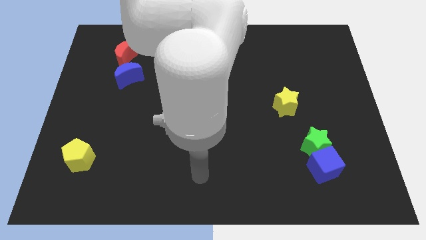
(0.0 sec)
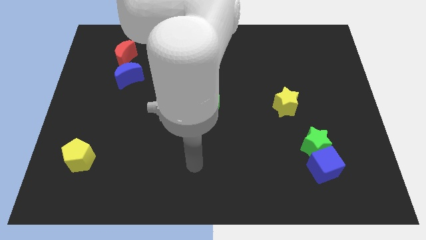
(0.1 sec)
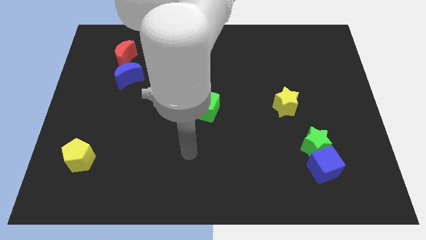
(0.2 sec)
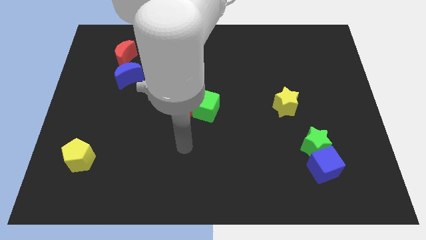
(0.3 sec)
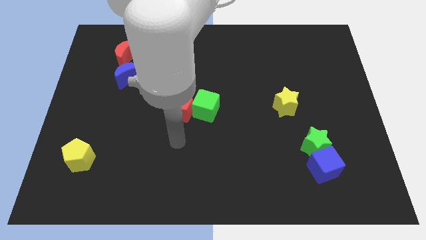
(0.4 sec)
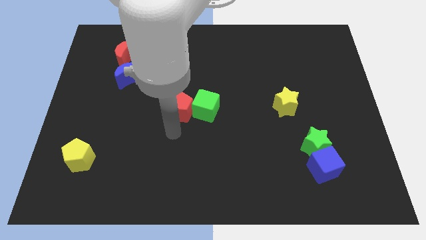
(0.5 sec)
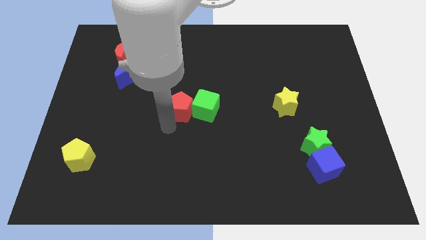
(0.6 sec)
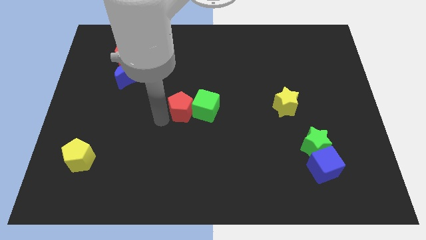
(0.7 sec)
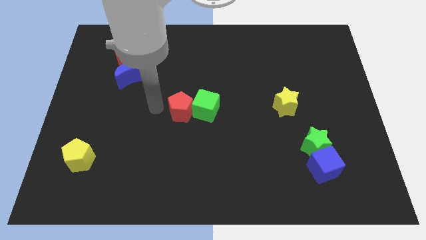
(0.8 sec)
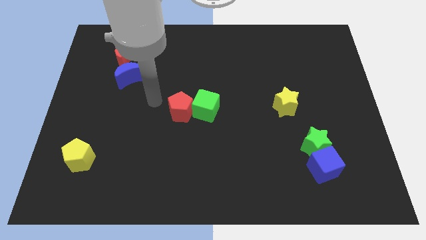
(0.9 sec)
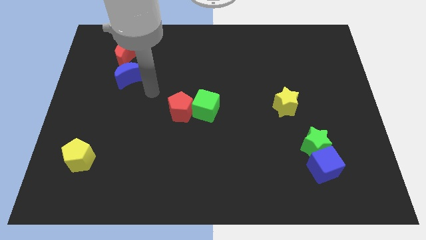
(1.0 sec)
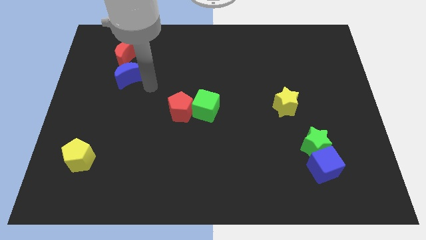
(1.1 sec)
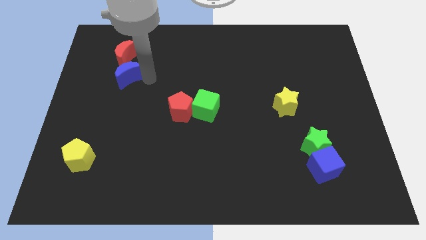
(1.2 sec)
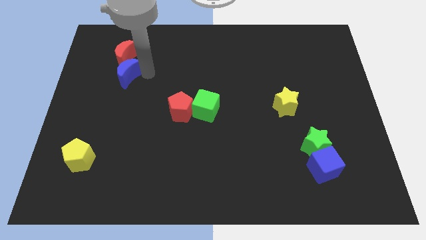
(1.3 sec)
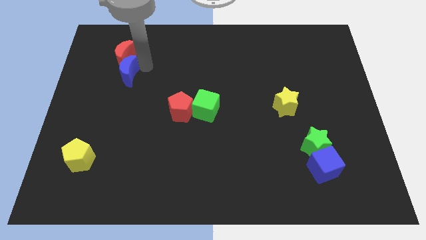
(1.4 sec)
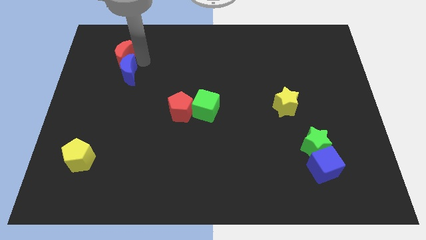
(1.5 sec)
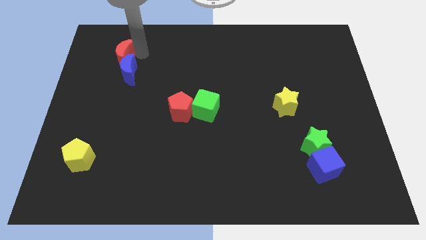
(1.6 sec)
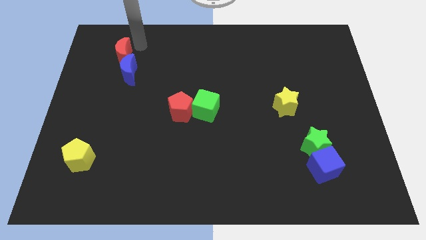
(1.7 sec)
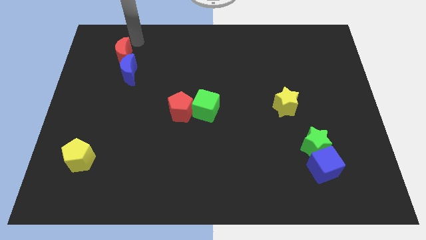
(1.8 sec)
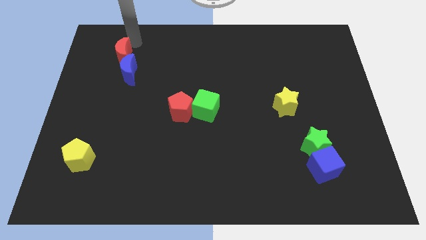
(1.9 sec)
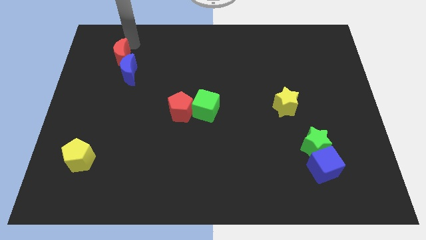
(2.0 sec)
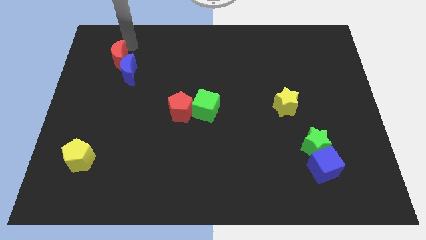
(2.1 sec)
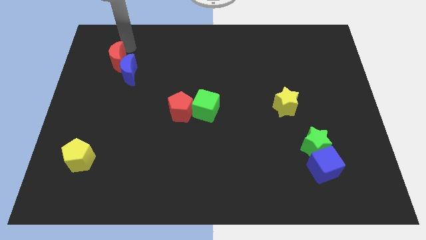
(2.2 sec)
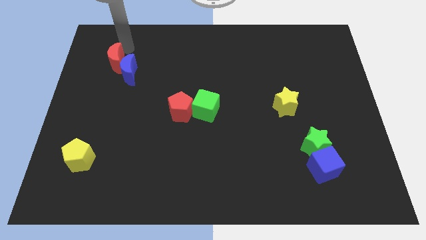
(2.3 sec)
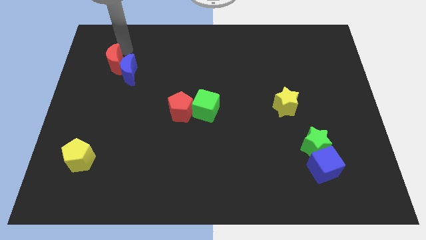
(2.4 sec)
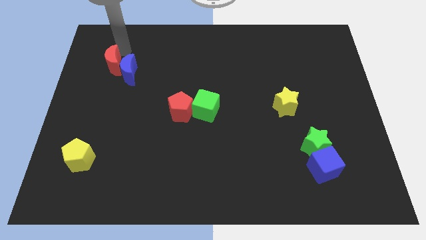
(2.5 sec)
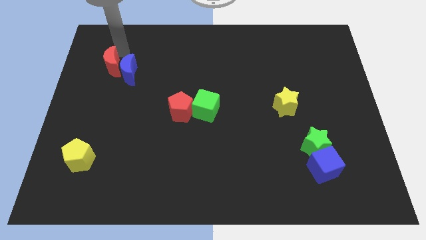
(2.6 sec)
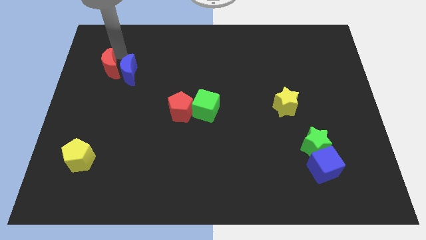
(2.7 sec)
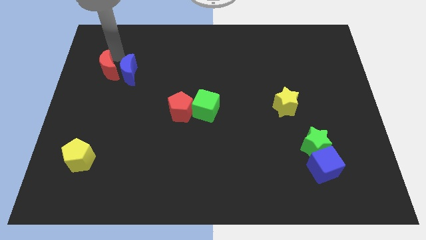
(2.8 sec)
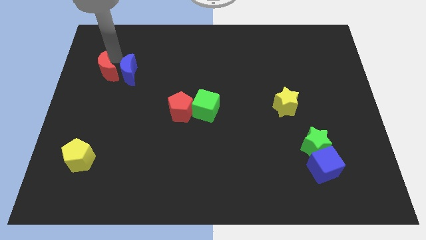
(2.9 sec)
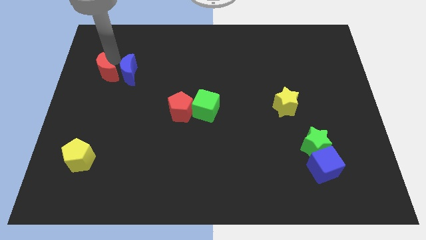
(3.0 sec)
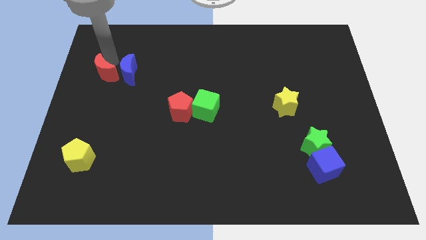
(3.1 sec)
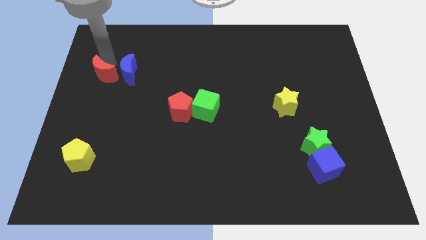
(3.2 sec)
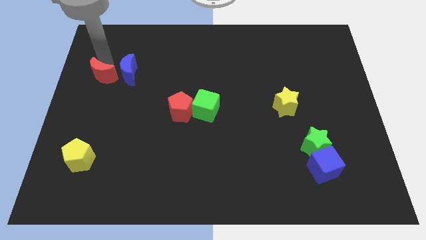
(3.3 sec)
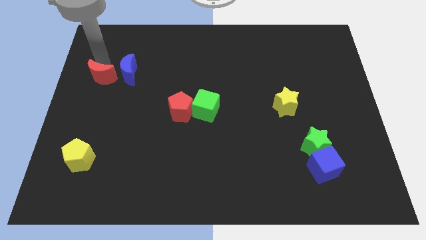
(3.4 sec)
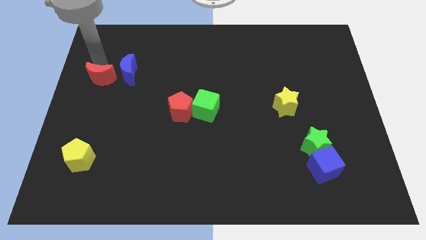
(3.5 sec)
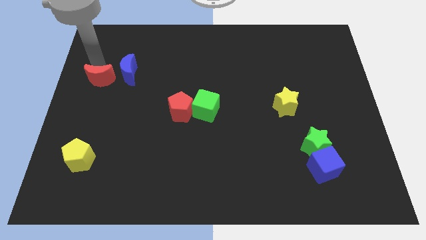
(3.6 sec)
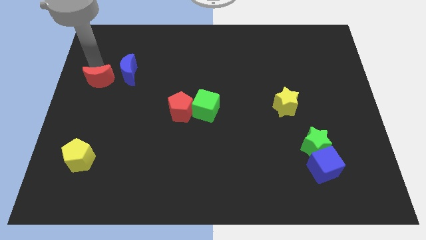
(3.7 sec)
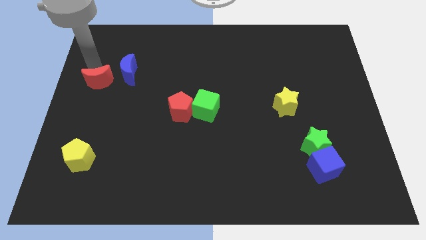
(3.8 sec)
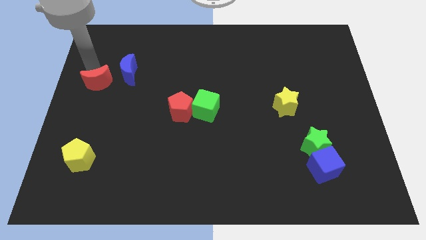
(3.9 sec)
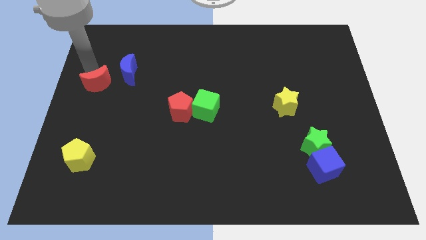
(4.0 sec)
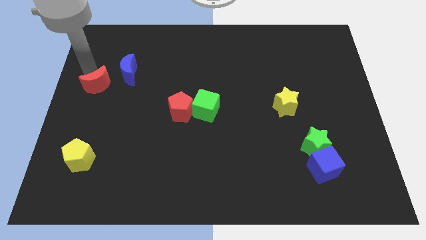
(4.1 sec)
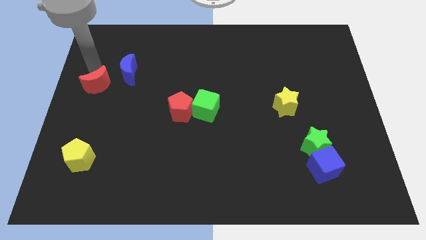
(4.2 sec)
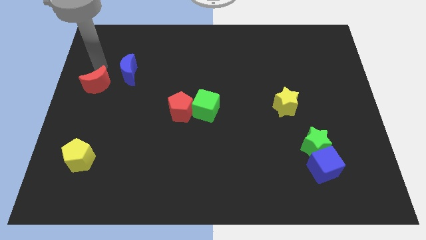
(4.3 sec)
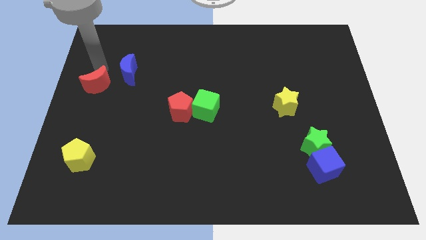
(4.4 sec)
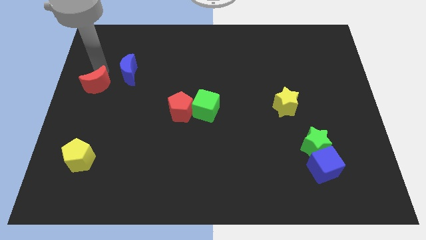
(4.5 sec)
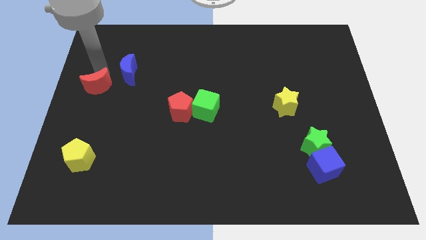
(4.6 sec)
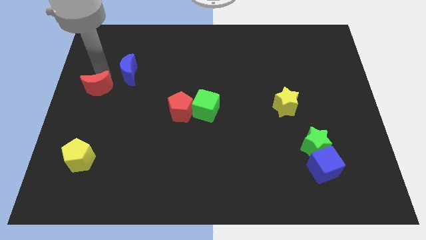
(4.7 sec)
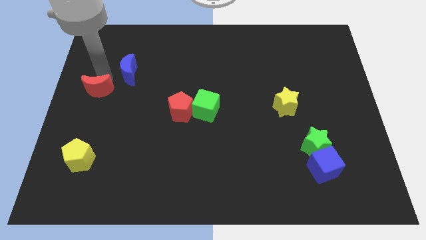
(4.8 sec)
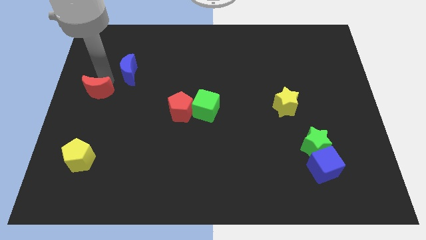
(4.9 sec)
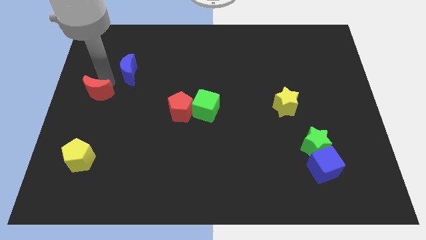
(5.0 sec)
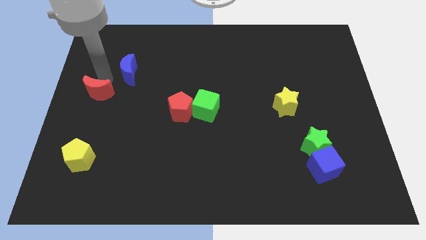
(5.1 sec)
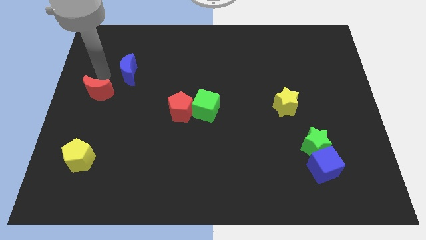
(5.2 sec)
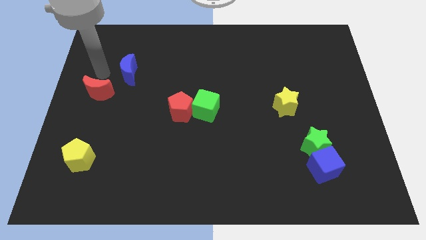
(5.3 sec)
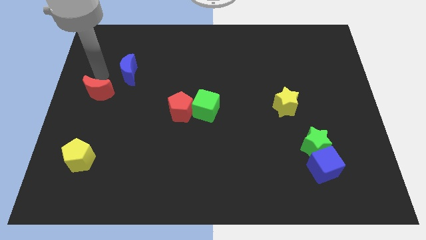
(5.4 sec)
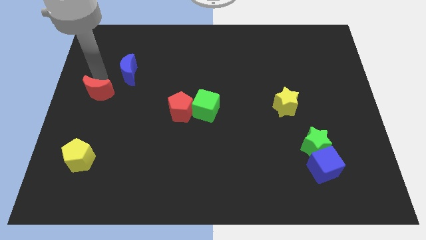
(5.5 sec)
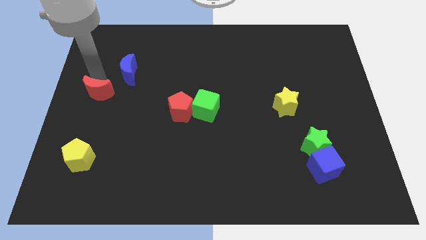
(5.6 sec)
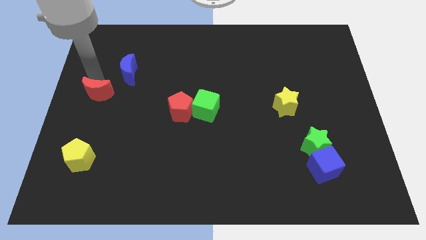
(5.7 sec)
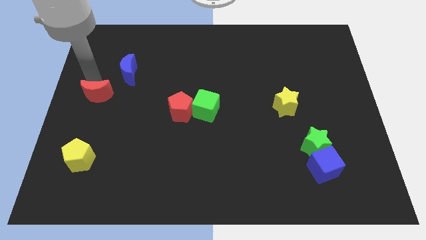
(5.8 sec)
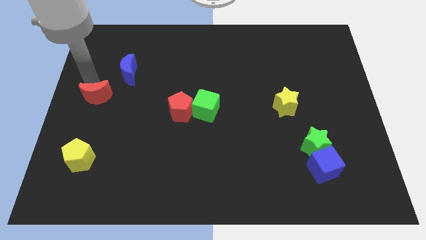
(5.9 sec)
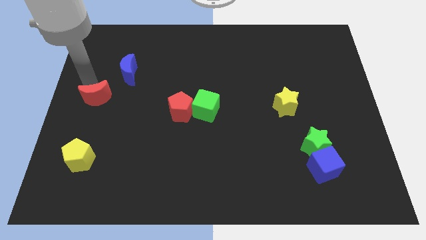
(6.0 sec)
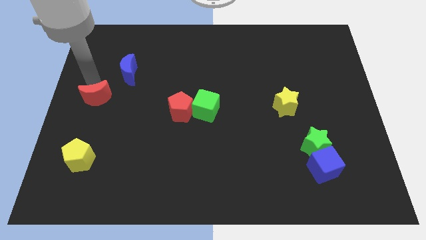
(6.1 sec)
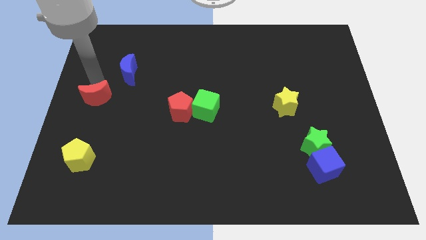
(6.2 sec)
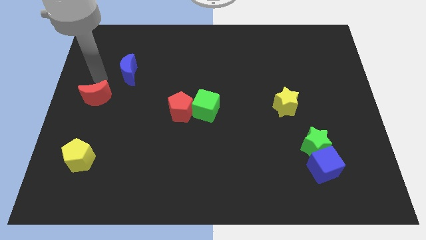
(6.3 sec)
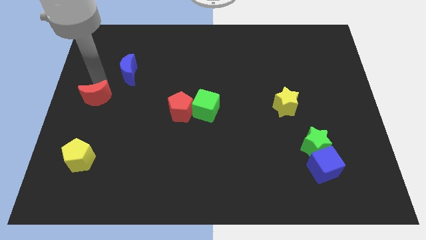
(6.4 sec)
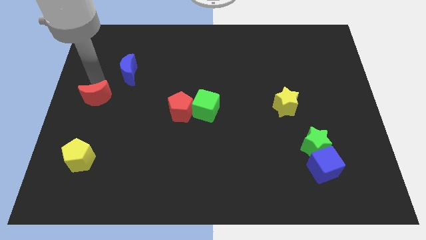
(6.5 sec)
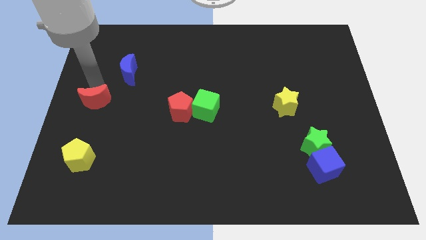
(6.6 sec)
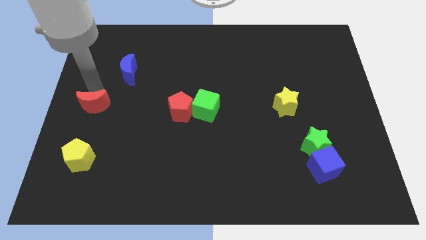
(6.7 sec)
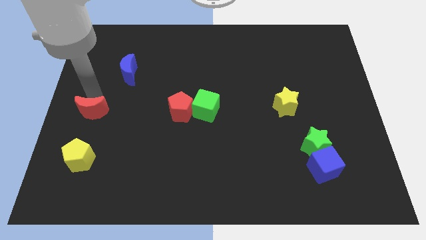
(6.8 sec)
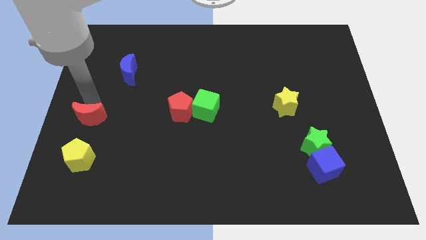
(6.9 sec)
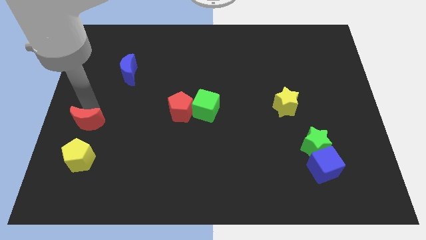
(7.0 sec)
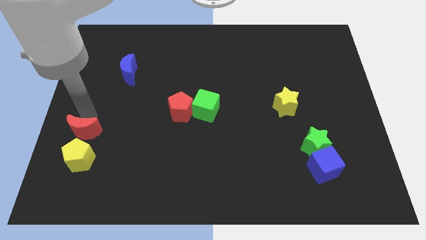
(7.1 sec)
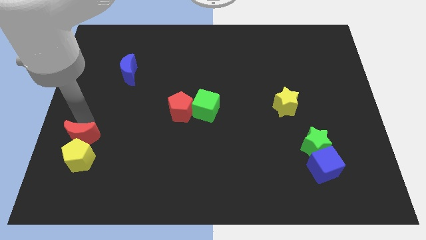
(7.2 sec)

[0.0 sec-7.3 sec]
slide the red moon close to the yellow pentagon
